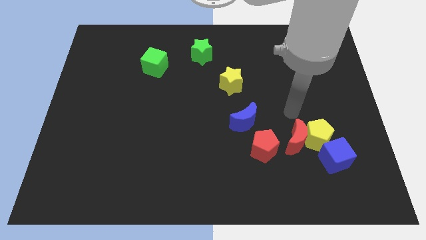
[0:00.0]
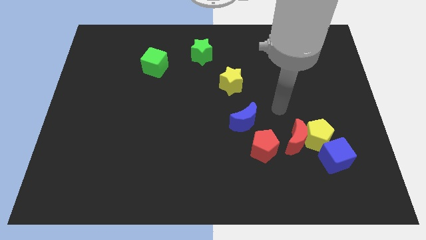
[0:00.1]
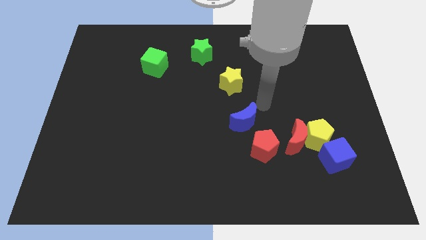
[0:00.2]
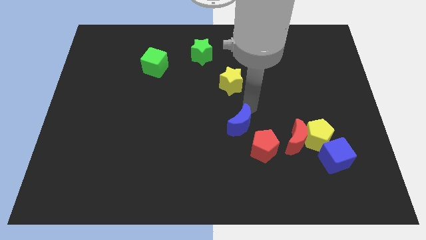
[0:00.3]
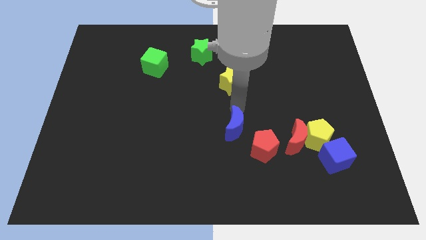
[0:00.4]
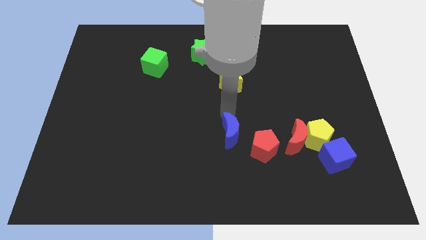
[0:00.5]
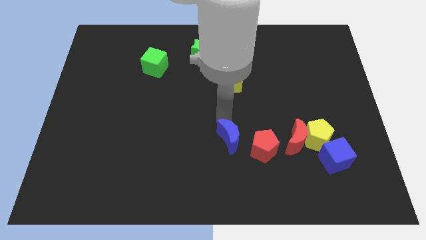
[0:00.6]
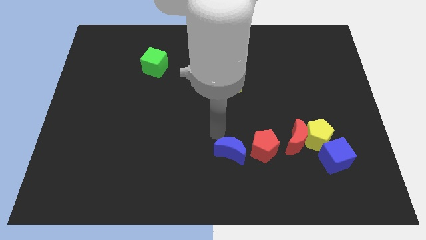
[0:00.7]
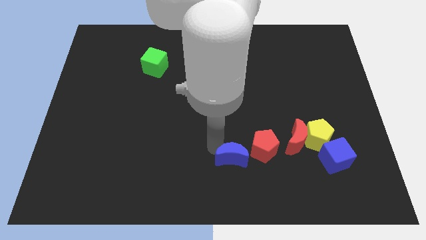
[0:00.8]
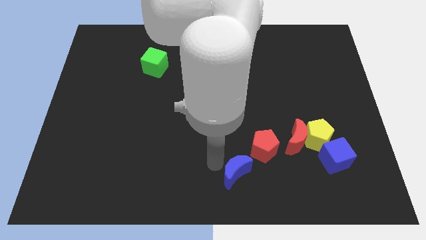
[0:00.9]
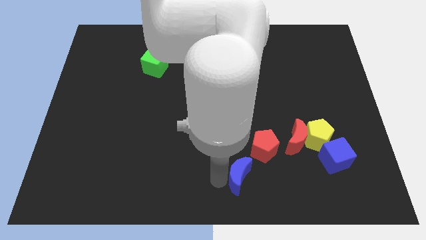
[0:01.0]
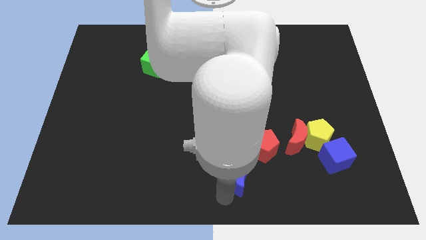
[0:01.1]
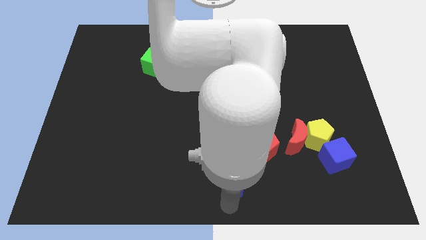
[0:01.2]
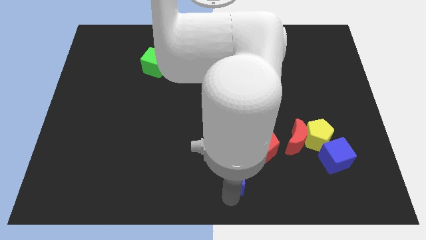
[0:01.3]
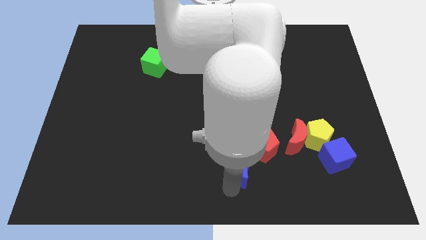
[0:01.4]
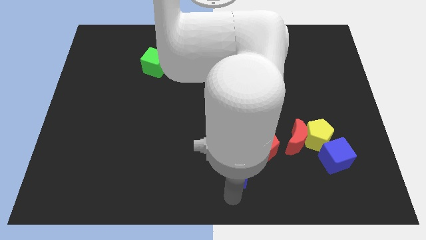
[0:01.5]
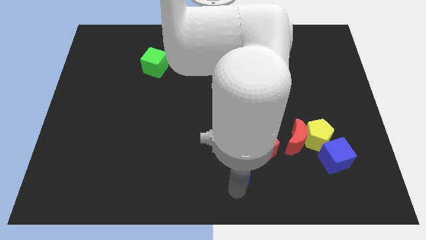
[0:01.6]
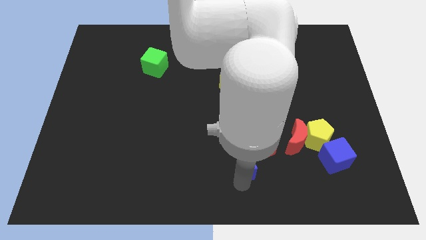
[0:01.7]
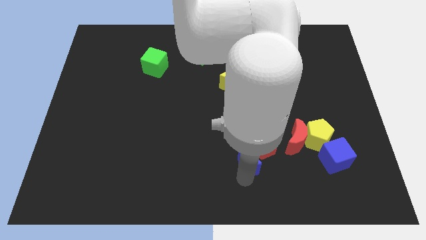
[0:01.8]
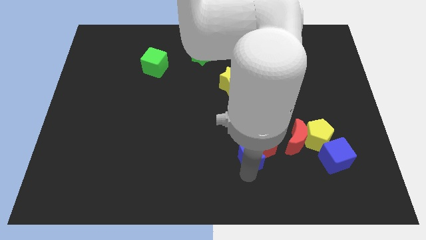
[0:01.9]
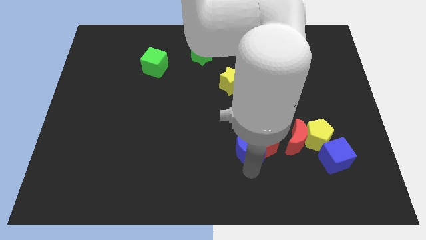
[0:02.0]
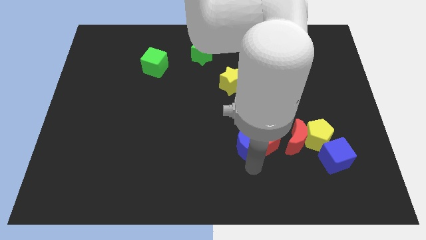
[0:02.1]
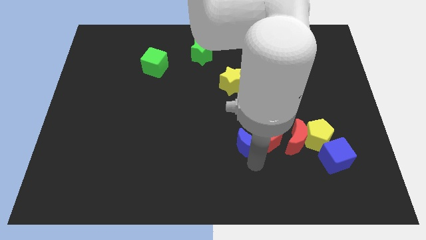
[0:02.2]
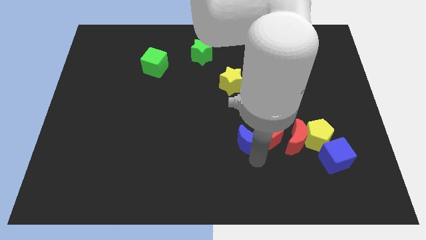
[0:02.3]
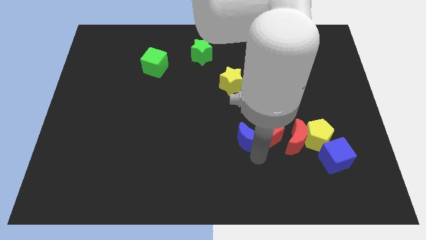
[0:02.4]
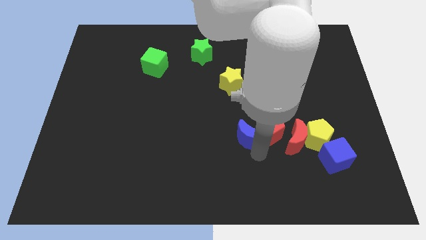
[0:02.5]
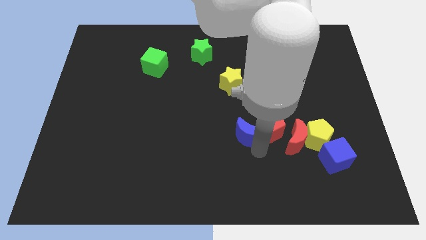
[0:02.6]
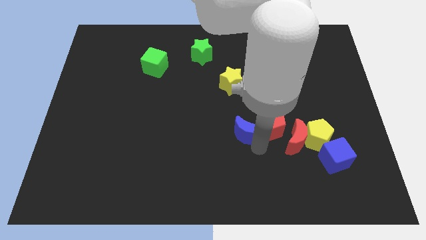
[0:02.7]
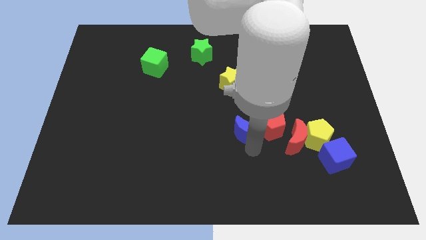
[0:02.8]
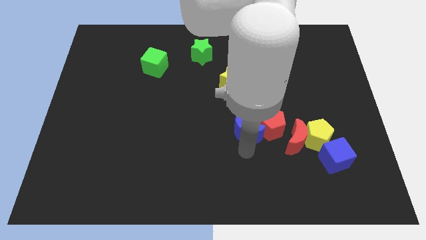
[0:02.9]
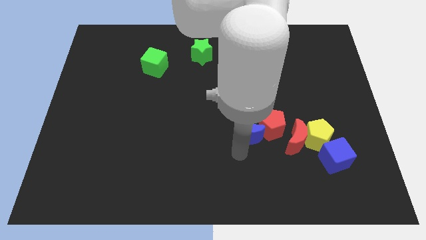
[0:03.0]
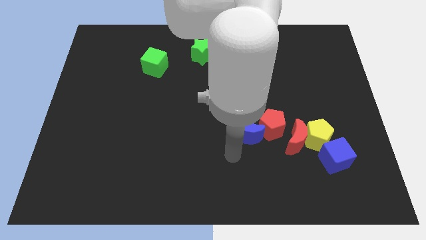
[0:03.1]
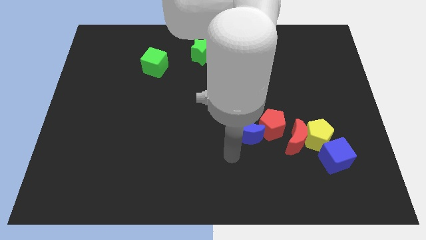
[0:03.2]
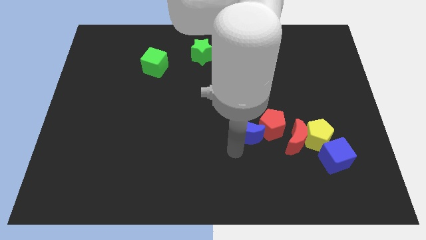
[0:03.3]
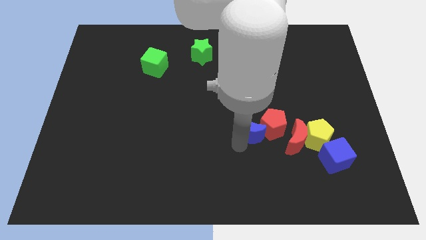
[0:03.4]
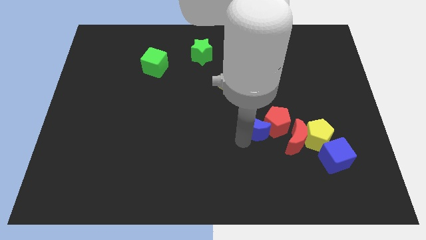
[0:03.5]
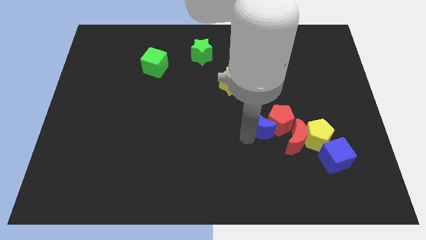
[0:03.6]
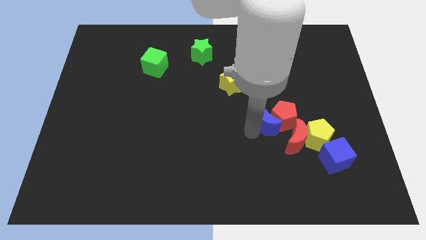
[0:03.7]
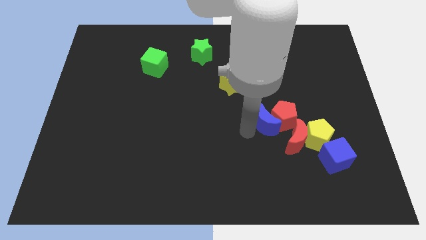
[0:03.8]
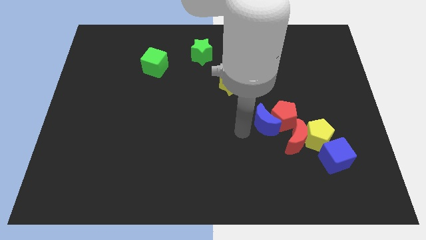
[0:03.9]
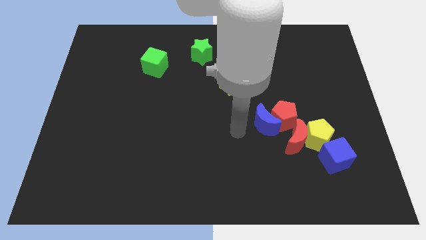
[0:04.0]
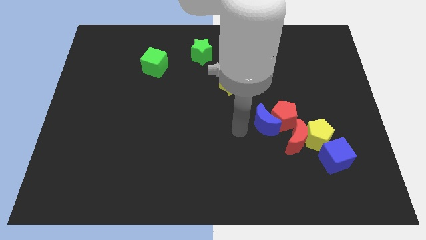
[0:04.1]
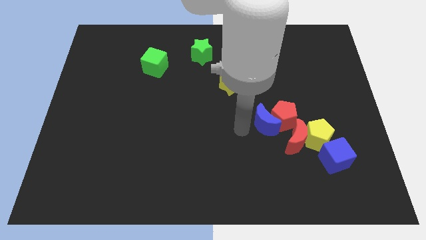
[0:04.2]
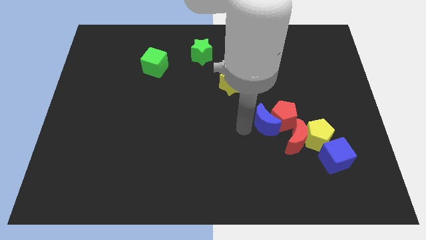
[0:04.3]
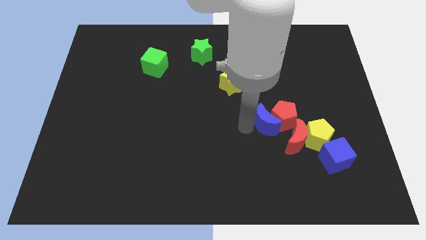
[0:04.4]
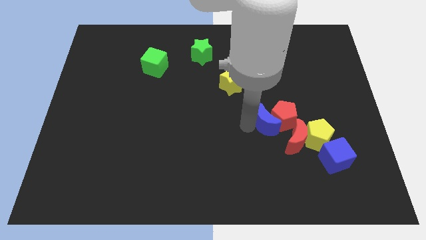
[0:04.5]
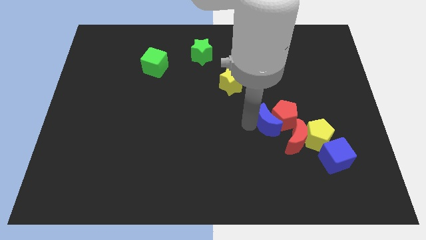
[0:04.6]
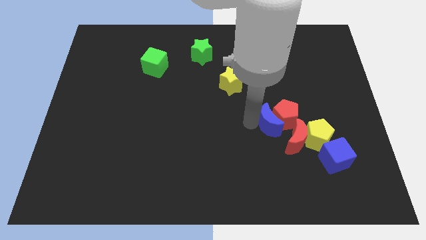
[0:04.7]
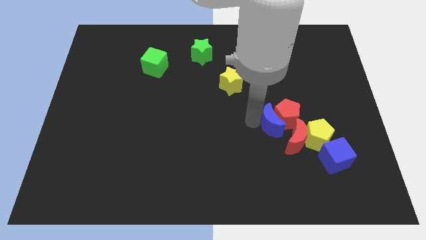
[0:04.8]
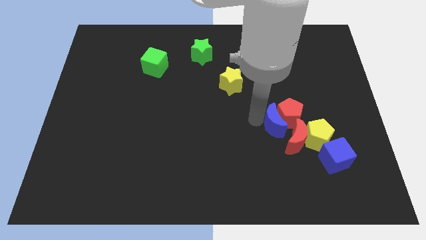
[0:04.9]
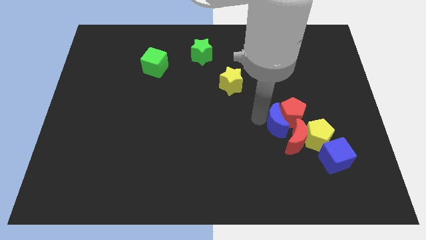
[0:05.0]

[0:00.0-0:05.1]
slide the blue moon next to the red moon

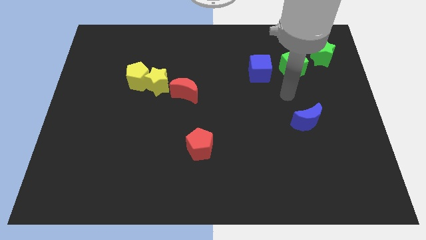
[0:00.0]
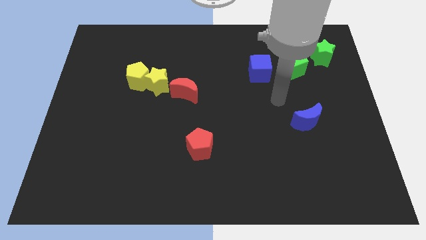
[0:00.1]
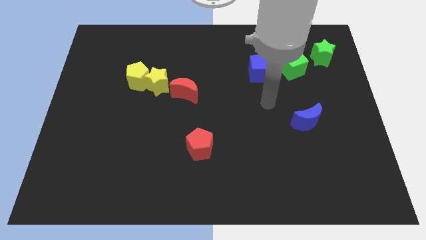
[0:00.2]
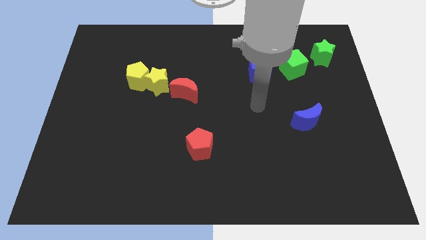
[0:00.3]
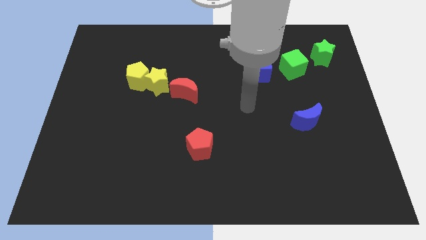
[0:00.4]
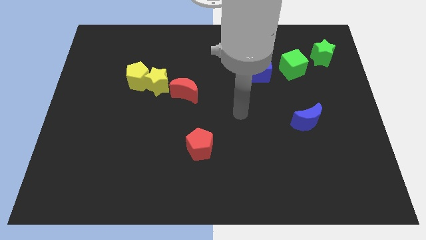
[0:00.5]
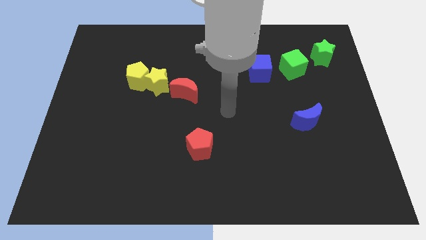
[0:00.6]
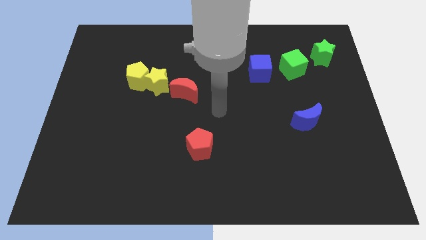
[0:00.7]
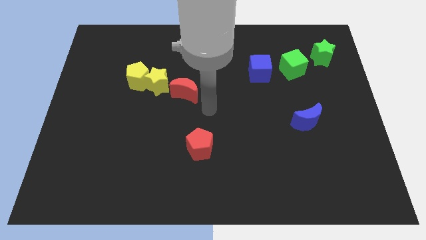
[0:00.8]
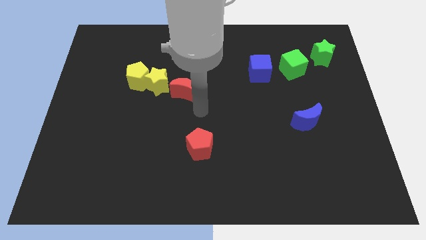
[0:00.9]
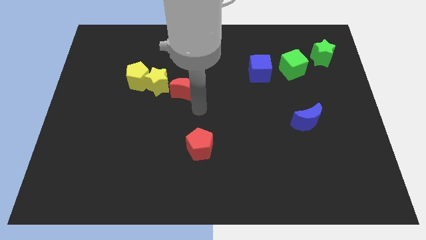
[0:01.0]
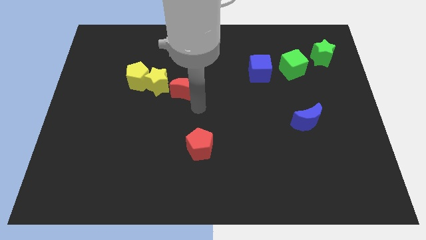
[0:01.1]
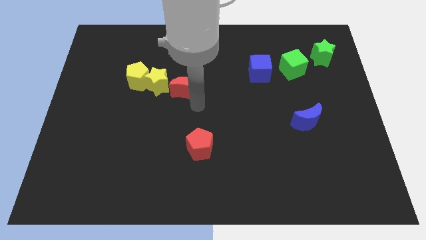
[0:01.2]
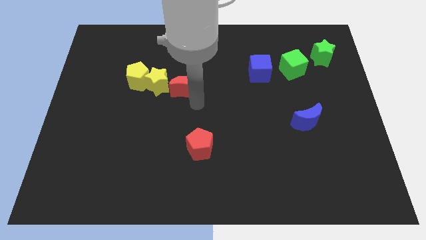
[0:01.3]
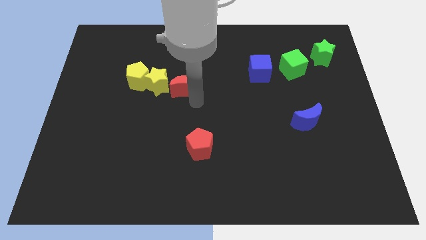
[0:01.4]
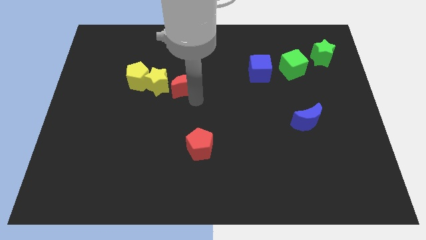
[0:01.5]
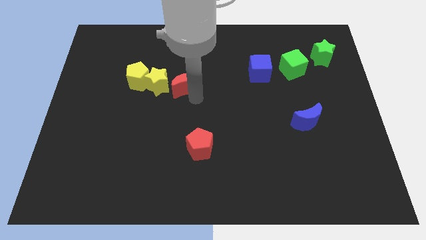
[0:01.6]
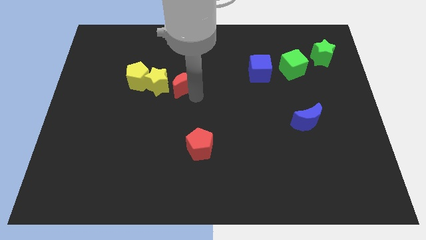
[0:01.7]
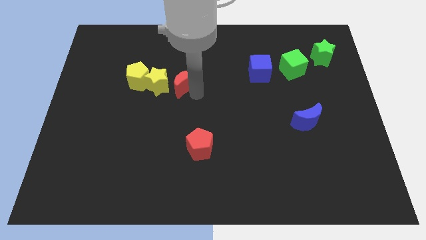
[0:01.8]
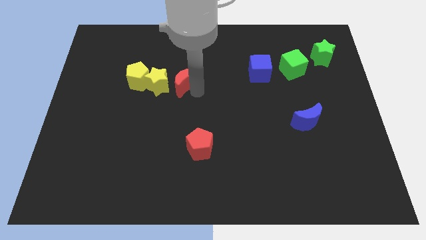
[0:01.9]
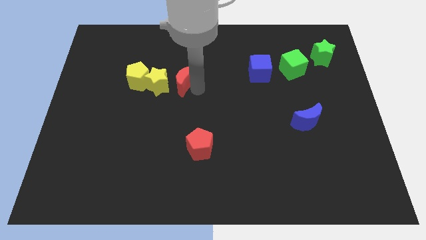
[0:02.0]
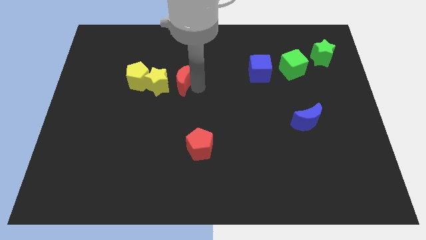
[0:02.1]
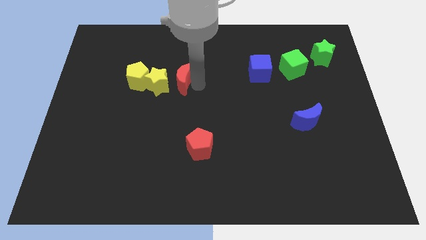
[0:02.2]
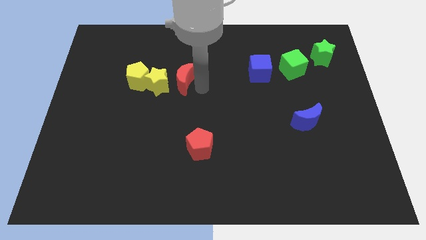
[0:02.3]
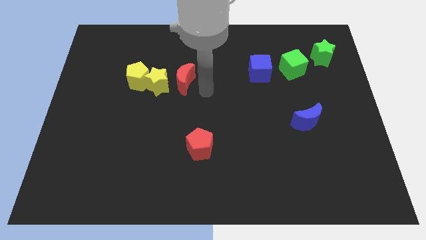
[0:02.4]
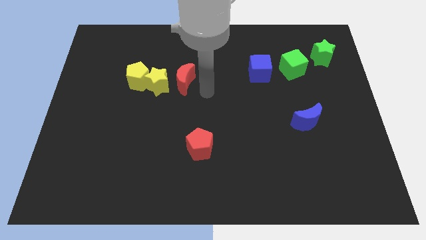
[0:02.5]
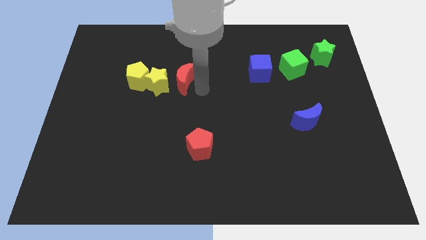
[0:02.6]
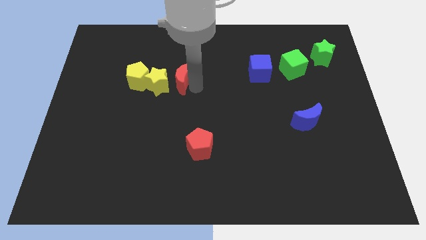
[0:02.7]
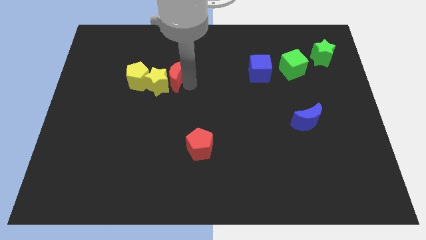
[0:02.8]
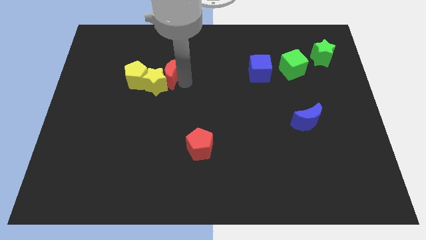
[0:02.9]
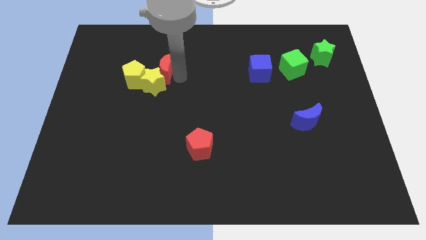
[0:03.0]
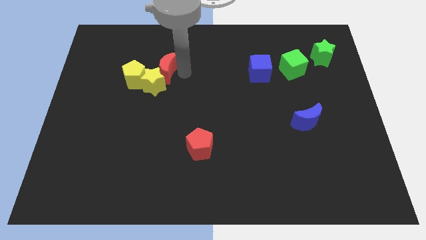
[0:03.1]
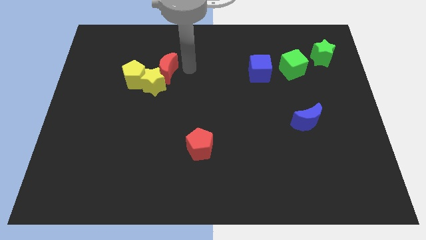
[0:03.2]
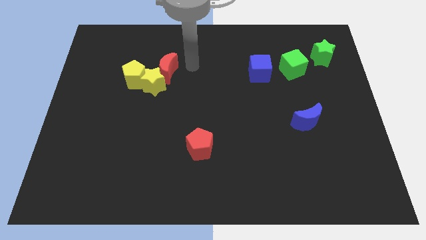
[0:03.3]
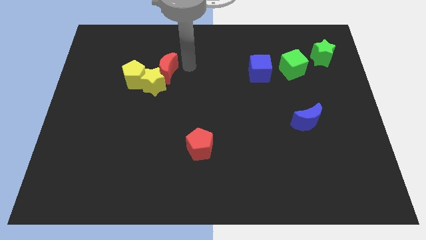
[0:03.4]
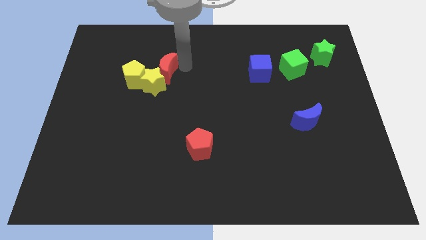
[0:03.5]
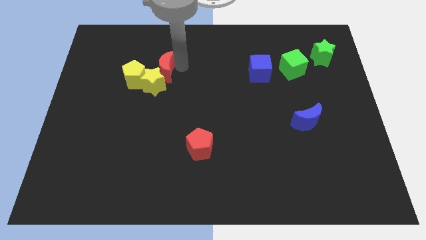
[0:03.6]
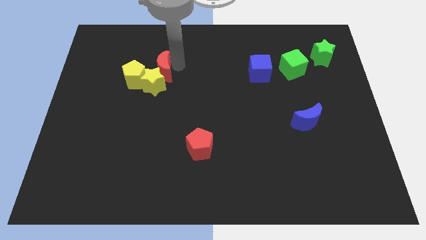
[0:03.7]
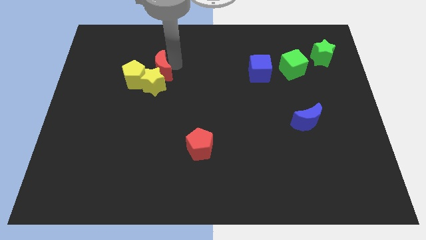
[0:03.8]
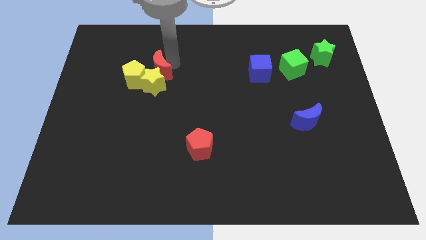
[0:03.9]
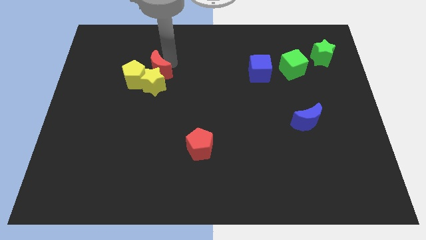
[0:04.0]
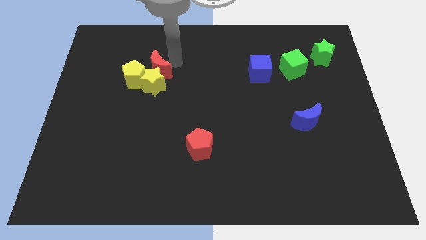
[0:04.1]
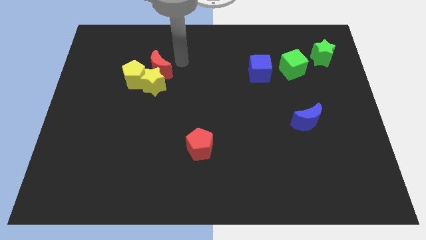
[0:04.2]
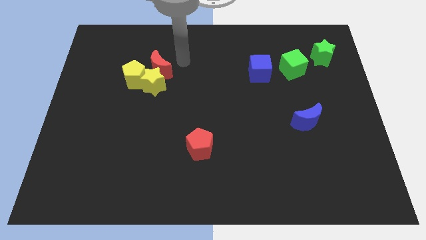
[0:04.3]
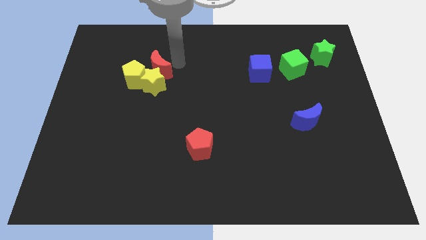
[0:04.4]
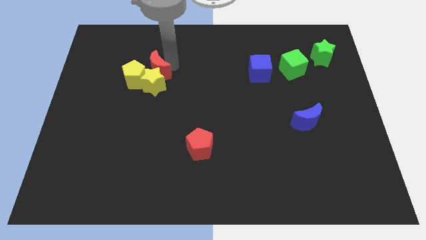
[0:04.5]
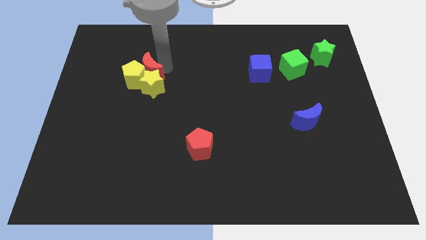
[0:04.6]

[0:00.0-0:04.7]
put the red moon to the yellow pentagon
